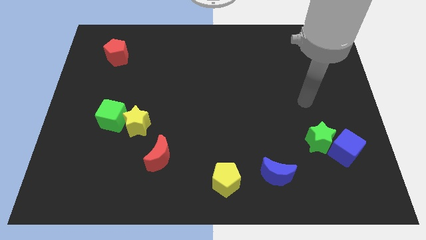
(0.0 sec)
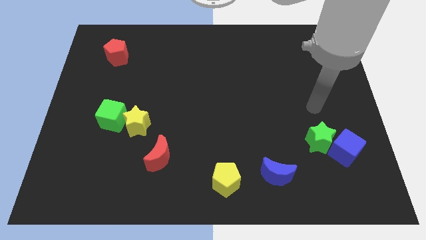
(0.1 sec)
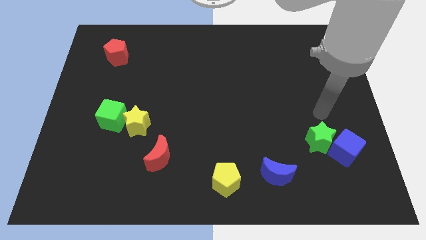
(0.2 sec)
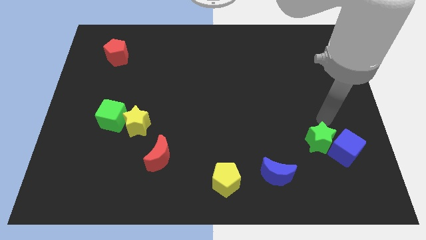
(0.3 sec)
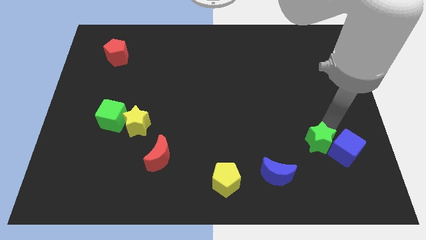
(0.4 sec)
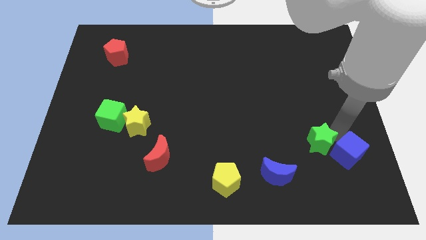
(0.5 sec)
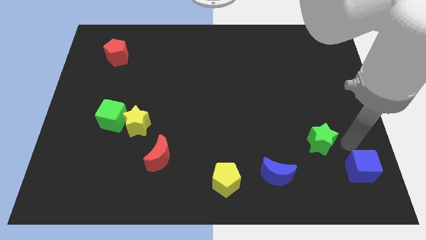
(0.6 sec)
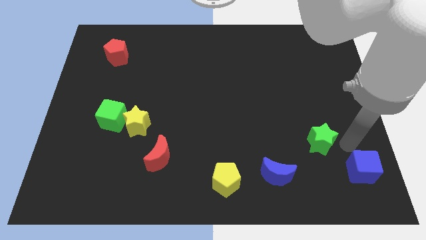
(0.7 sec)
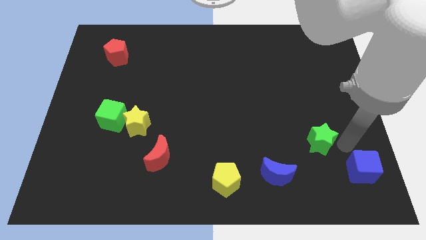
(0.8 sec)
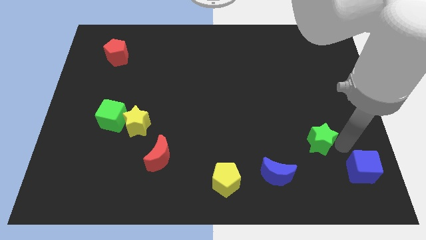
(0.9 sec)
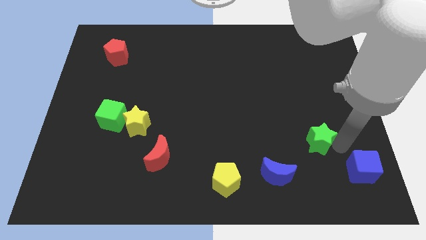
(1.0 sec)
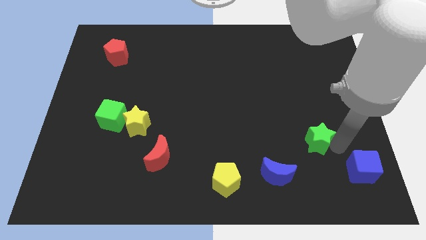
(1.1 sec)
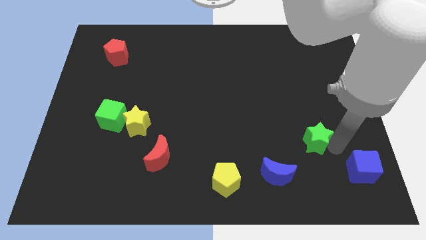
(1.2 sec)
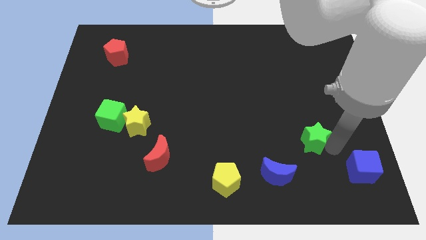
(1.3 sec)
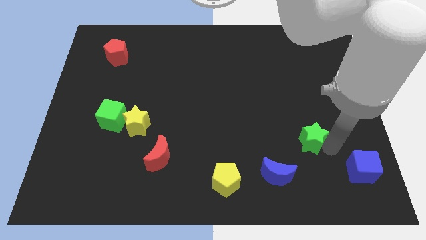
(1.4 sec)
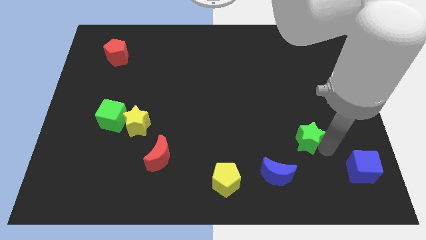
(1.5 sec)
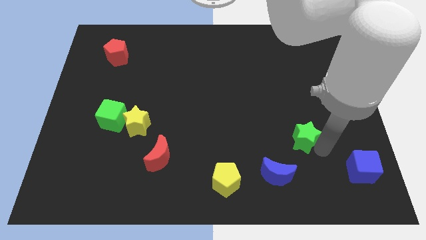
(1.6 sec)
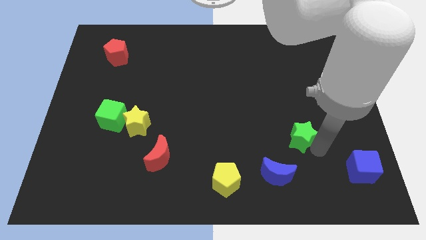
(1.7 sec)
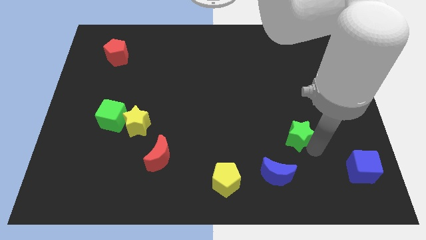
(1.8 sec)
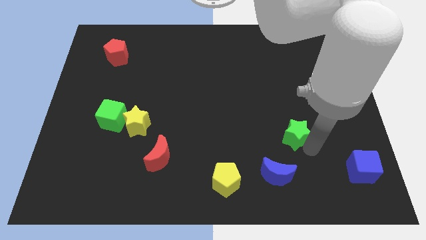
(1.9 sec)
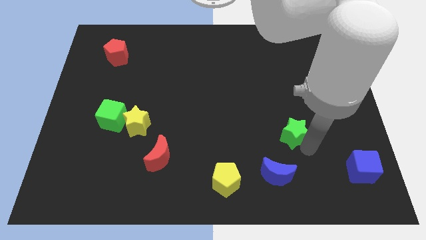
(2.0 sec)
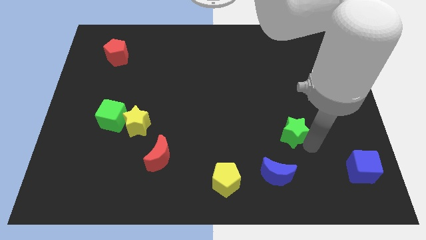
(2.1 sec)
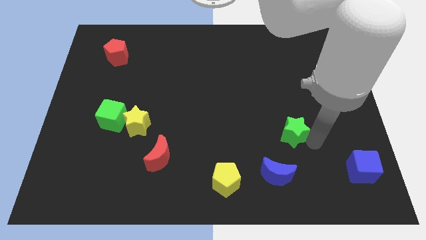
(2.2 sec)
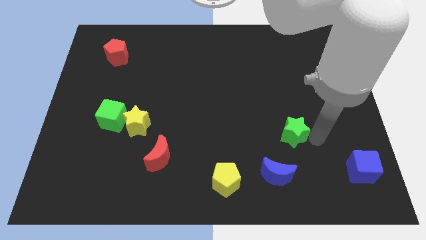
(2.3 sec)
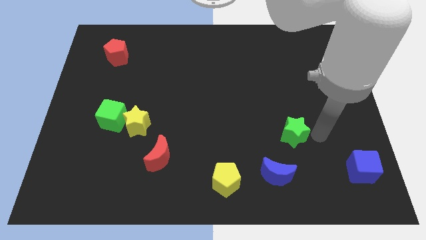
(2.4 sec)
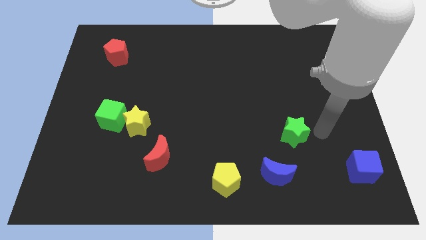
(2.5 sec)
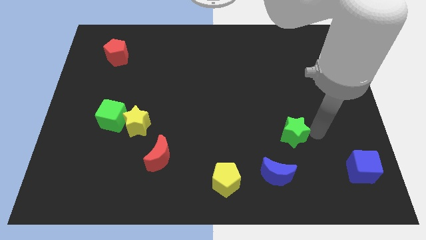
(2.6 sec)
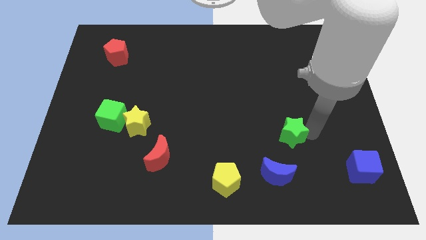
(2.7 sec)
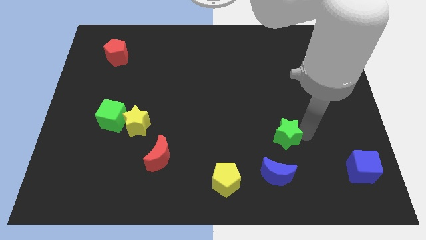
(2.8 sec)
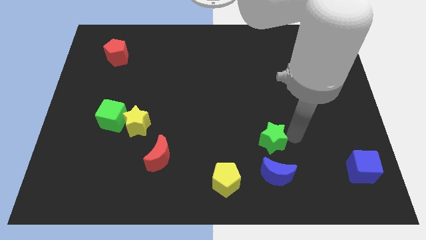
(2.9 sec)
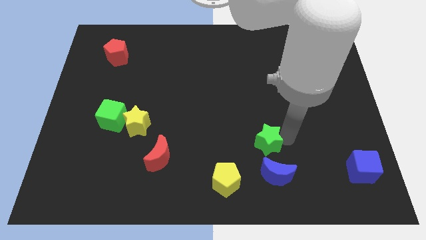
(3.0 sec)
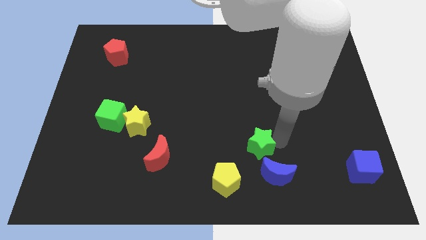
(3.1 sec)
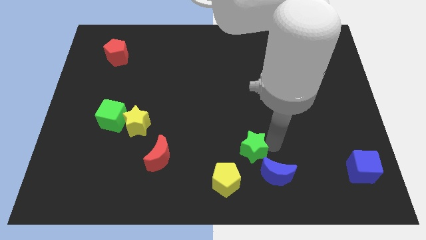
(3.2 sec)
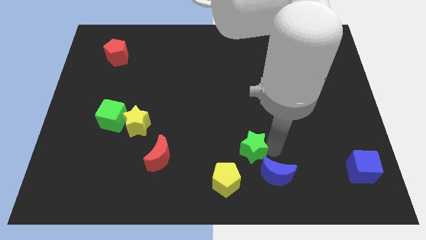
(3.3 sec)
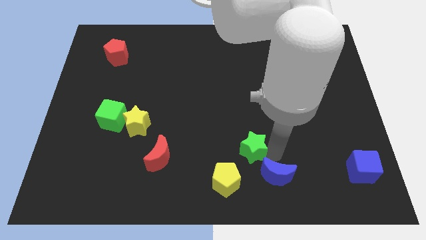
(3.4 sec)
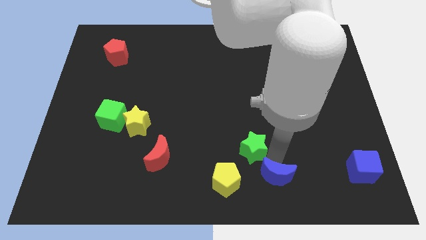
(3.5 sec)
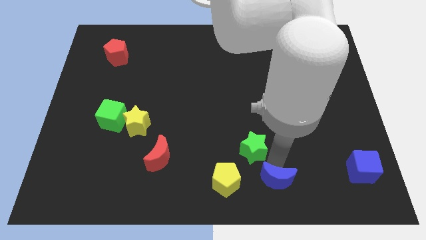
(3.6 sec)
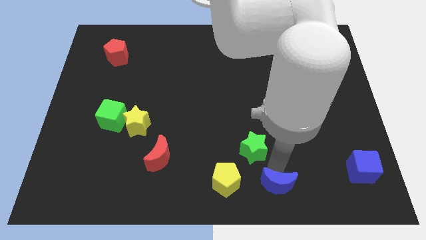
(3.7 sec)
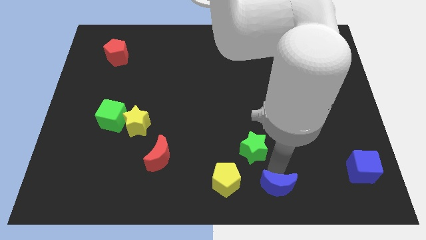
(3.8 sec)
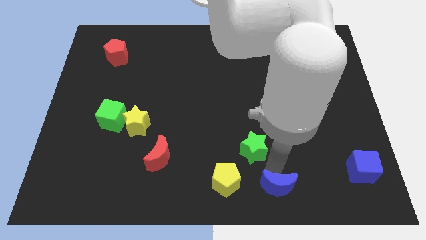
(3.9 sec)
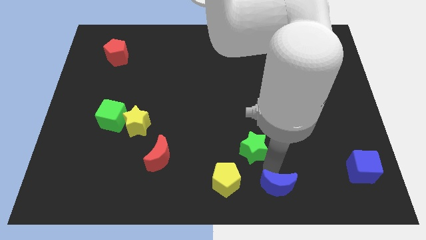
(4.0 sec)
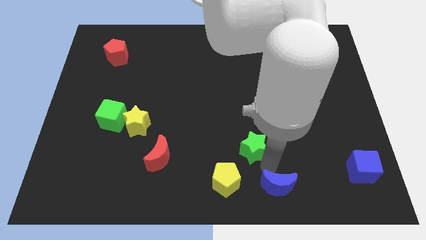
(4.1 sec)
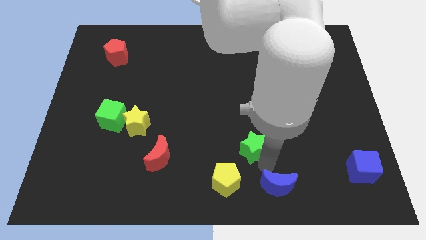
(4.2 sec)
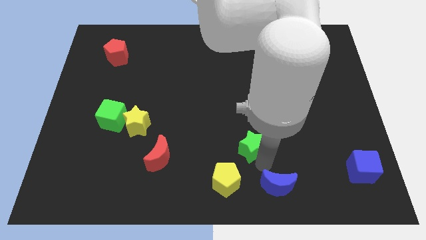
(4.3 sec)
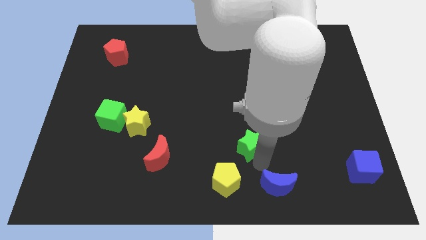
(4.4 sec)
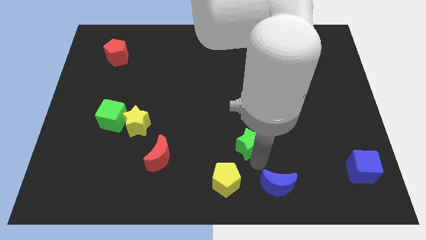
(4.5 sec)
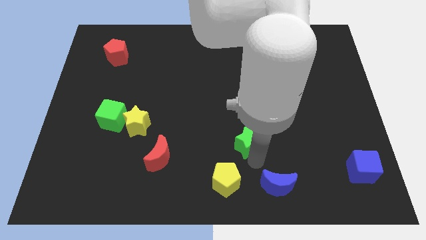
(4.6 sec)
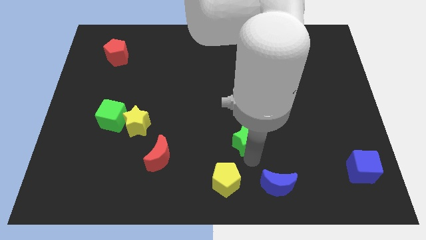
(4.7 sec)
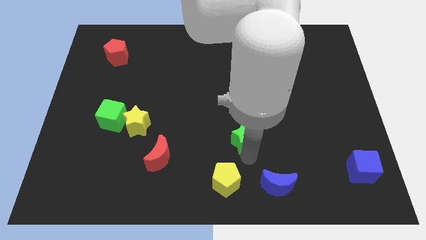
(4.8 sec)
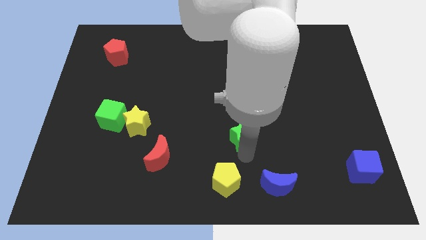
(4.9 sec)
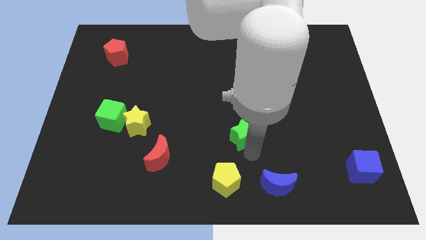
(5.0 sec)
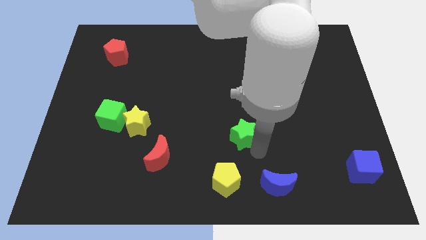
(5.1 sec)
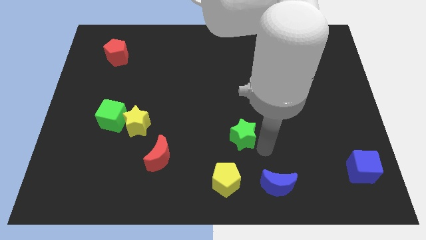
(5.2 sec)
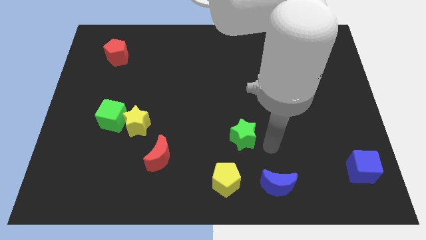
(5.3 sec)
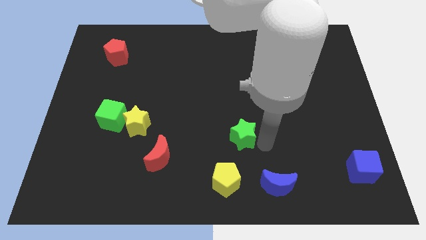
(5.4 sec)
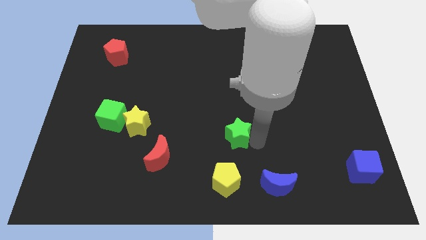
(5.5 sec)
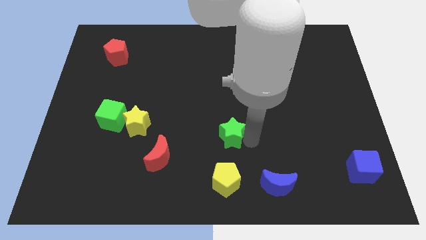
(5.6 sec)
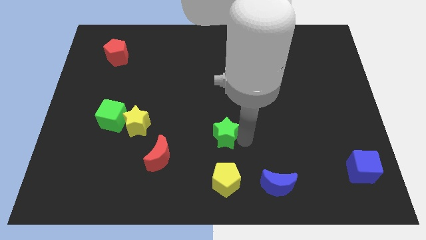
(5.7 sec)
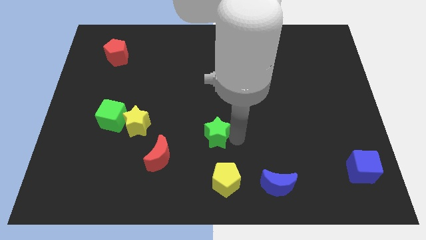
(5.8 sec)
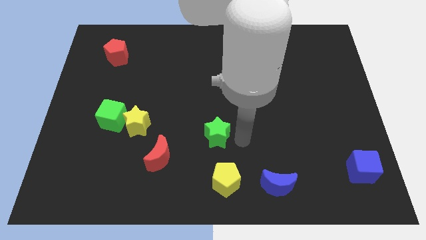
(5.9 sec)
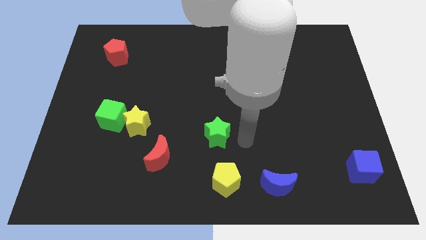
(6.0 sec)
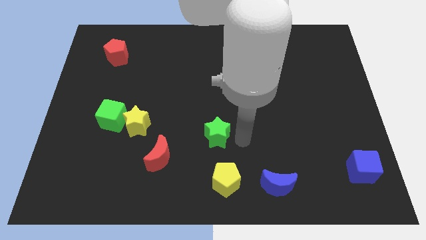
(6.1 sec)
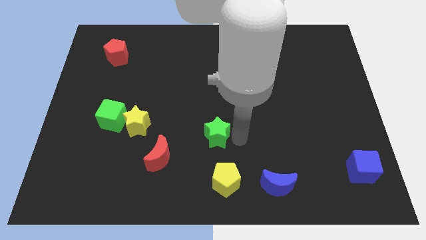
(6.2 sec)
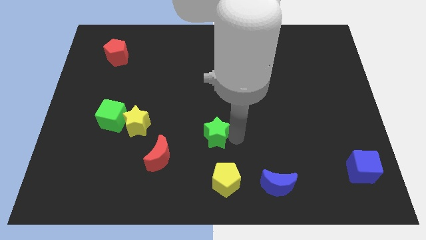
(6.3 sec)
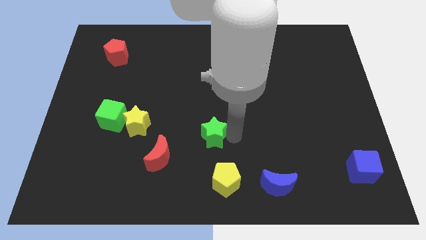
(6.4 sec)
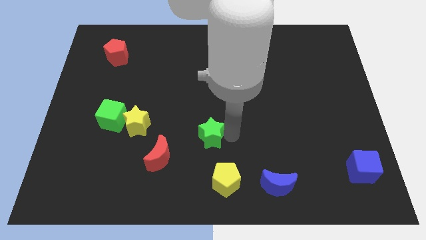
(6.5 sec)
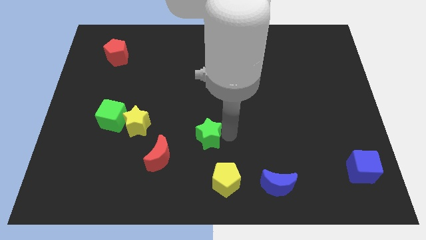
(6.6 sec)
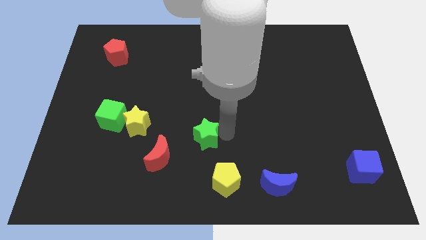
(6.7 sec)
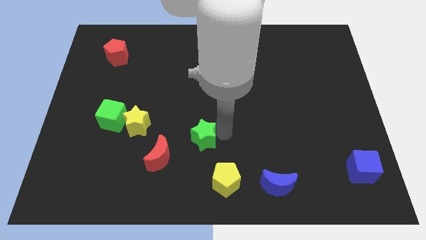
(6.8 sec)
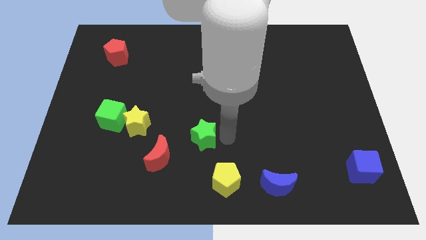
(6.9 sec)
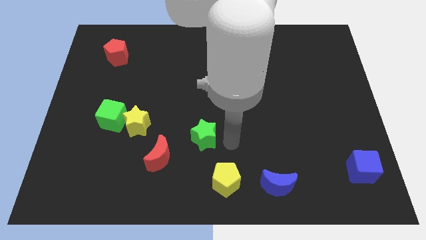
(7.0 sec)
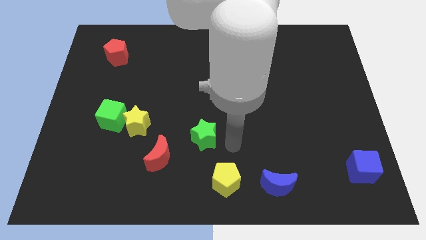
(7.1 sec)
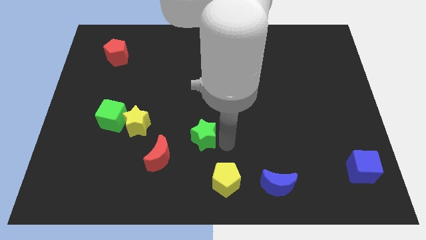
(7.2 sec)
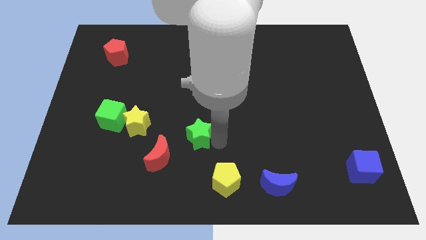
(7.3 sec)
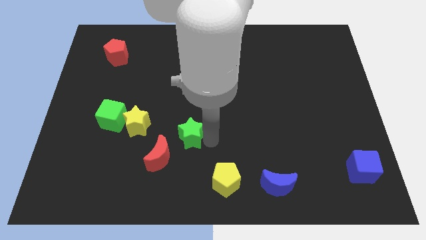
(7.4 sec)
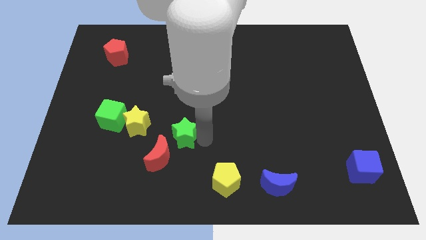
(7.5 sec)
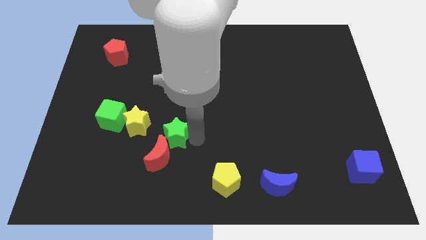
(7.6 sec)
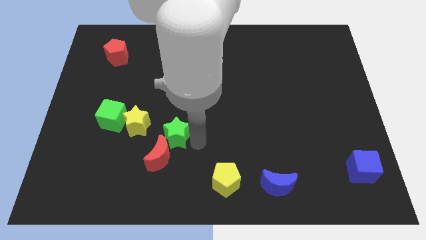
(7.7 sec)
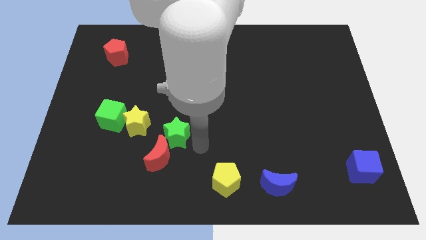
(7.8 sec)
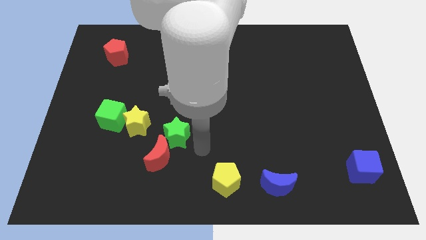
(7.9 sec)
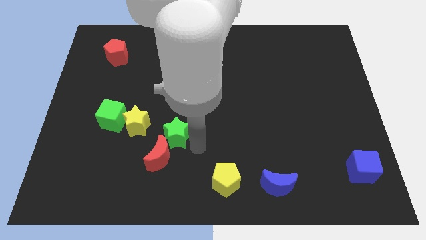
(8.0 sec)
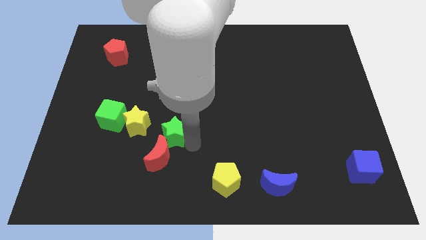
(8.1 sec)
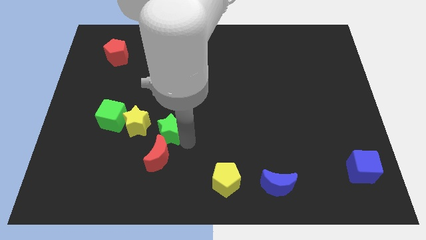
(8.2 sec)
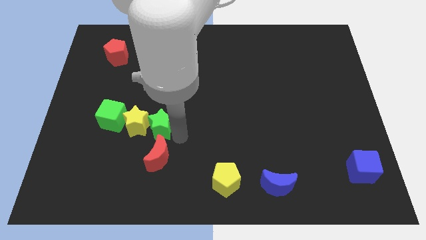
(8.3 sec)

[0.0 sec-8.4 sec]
move the green star towards the yellow star
